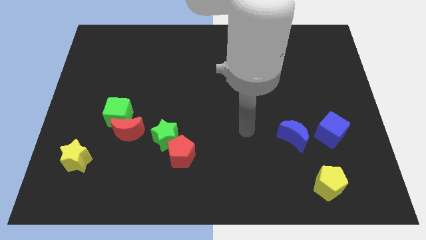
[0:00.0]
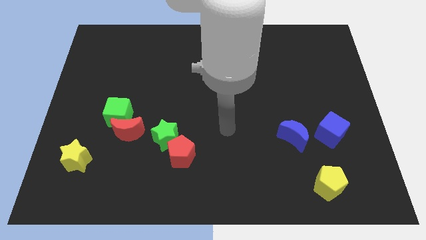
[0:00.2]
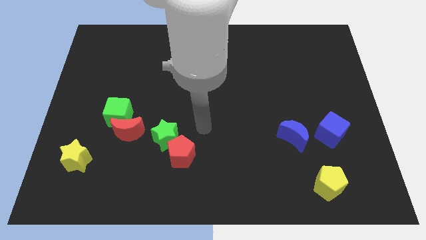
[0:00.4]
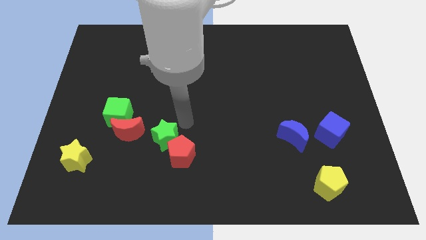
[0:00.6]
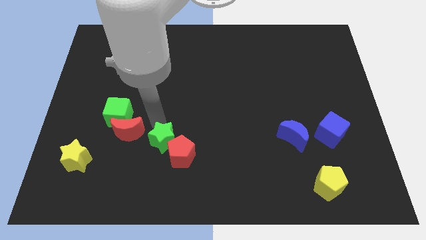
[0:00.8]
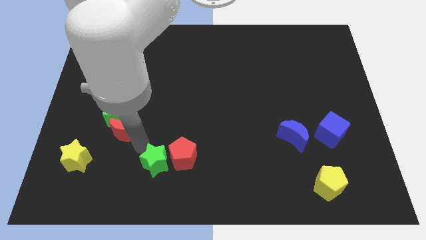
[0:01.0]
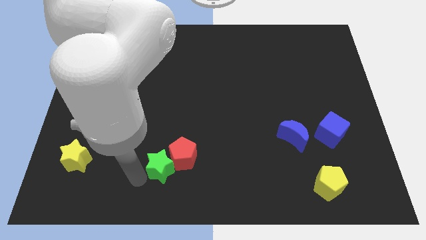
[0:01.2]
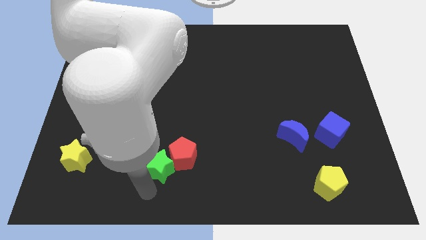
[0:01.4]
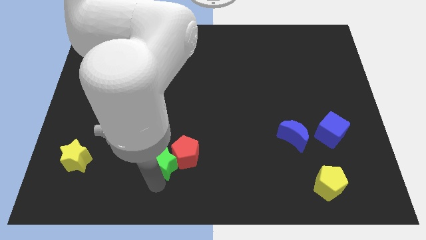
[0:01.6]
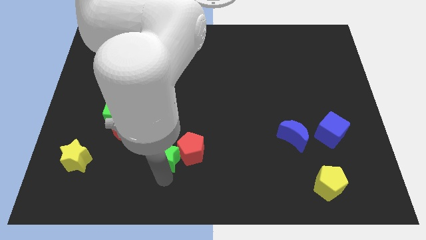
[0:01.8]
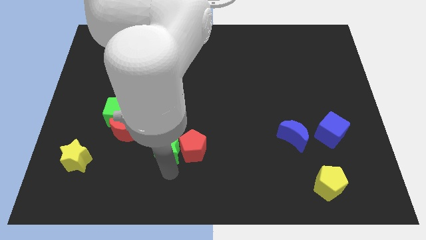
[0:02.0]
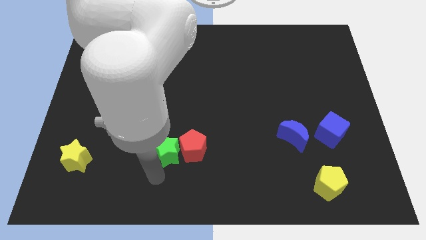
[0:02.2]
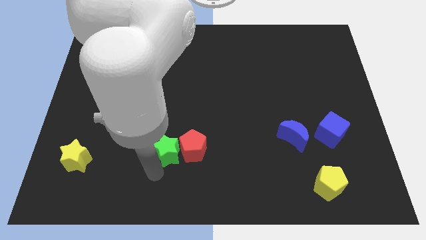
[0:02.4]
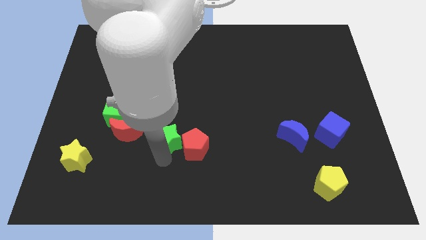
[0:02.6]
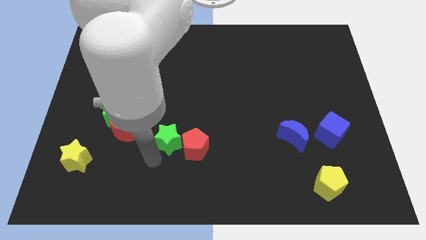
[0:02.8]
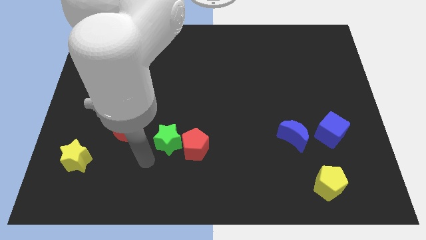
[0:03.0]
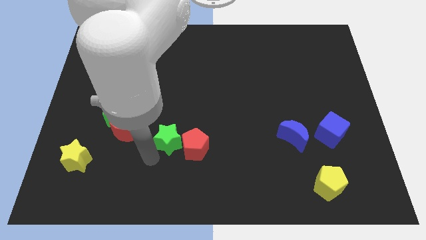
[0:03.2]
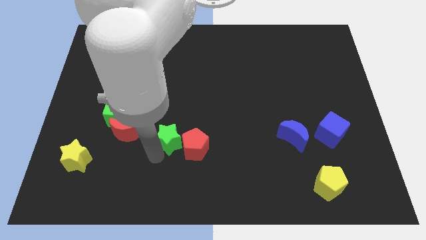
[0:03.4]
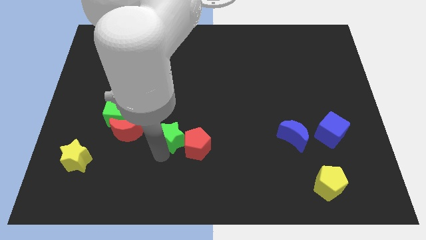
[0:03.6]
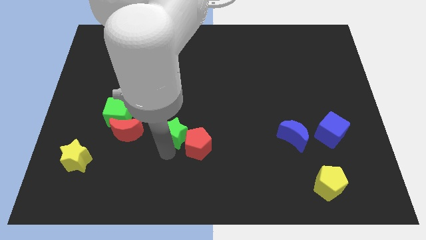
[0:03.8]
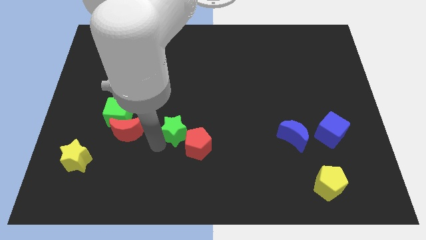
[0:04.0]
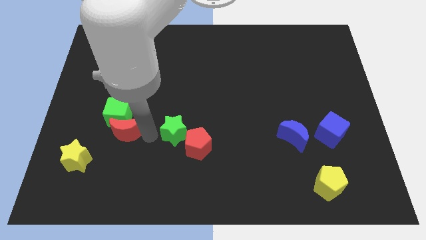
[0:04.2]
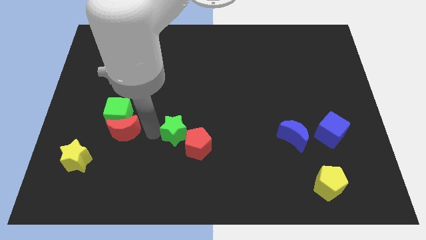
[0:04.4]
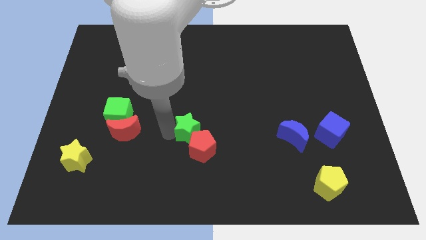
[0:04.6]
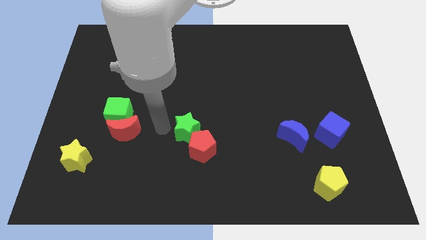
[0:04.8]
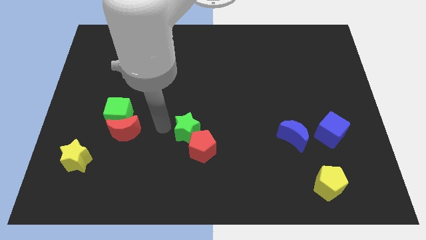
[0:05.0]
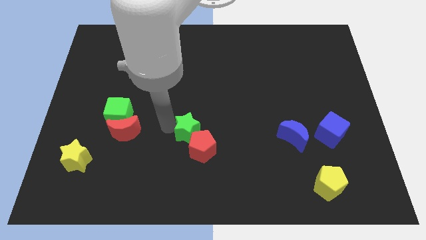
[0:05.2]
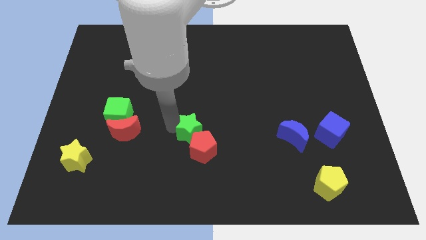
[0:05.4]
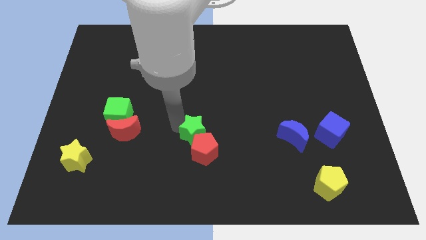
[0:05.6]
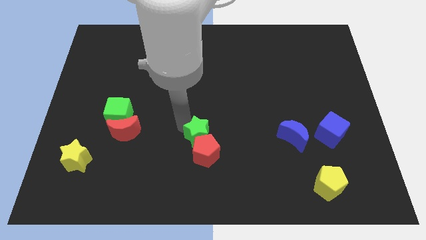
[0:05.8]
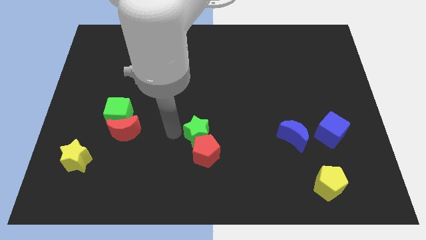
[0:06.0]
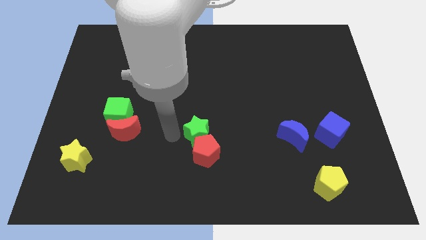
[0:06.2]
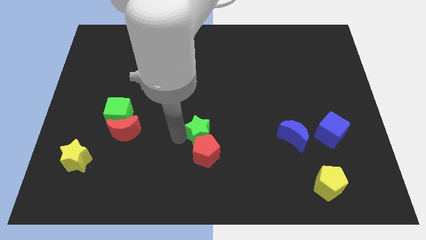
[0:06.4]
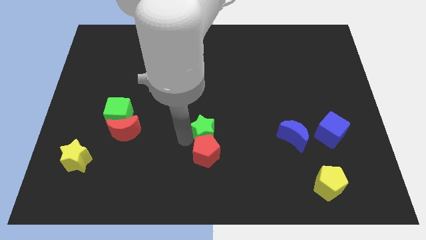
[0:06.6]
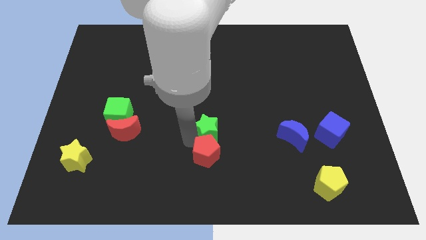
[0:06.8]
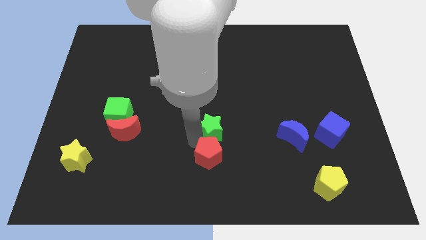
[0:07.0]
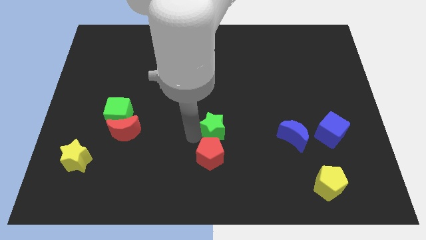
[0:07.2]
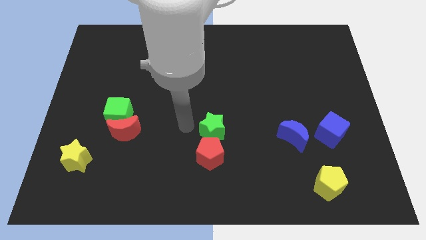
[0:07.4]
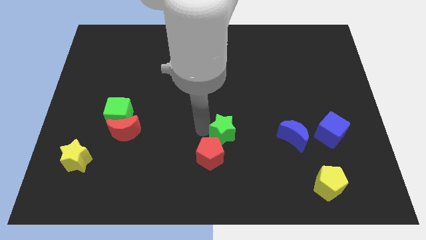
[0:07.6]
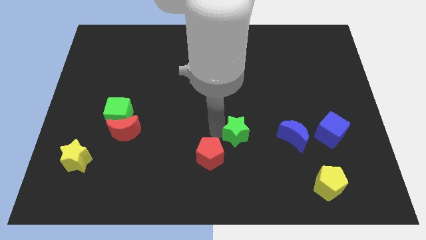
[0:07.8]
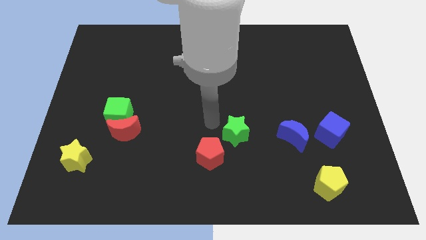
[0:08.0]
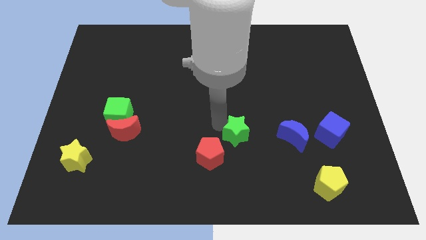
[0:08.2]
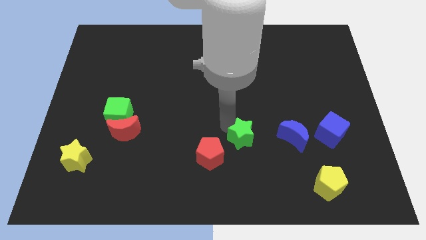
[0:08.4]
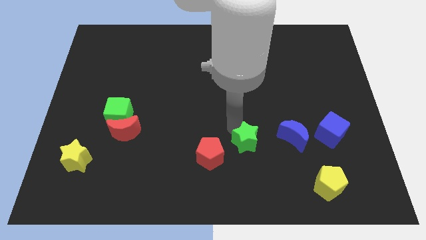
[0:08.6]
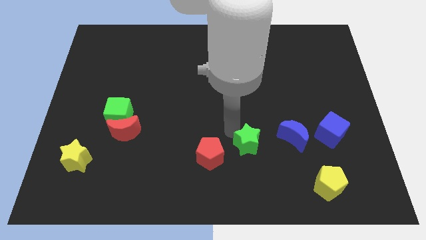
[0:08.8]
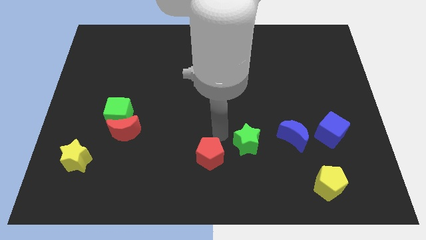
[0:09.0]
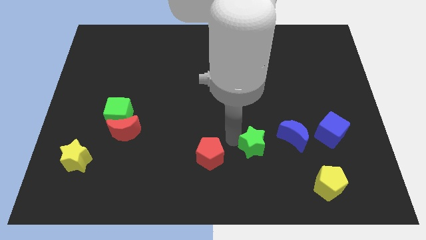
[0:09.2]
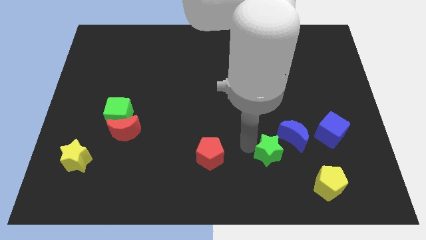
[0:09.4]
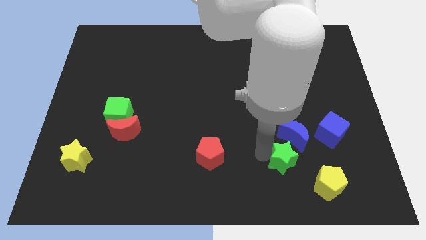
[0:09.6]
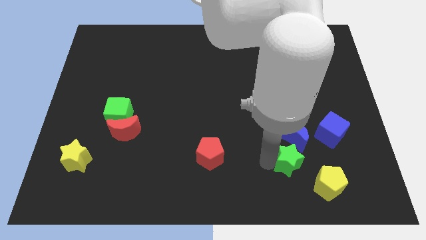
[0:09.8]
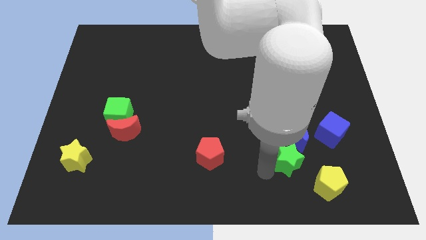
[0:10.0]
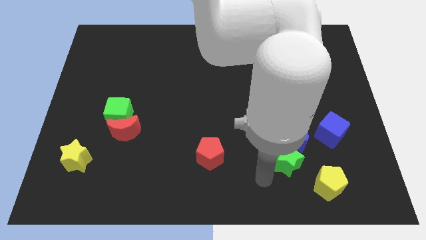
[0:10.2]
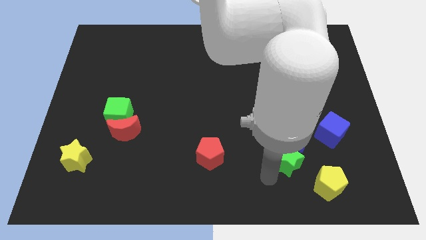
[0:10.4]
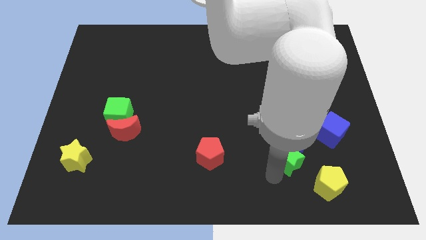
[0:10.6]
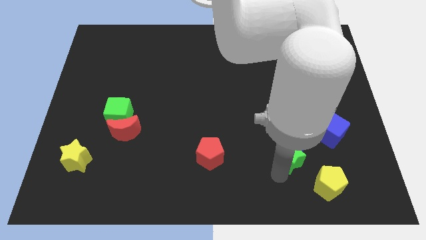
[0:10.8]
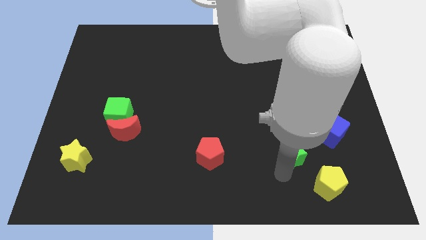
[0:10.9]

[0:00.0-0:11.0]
slide the green star to the bottom right side of the blue moon

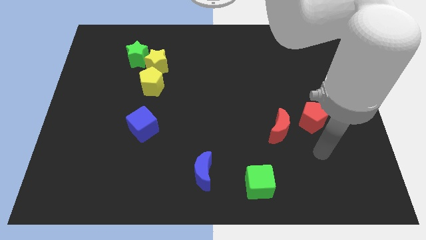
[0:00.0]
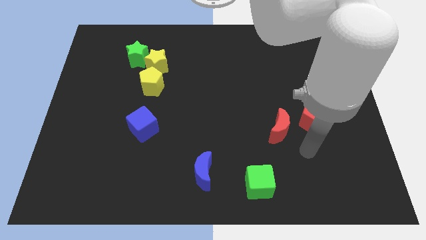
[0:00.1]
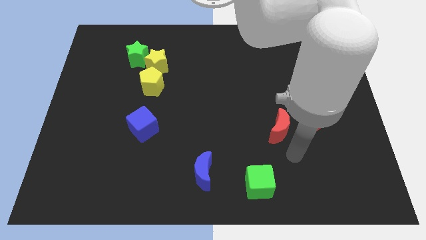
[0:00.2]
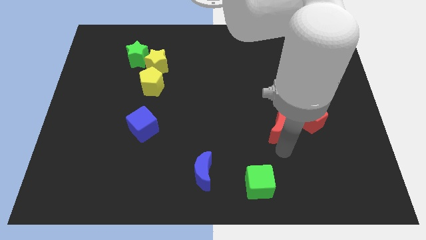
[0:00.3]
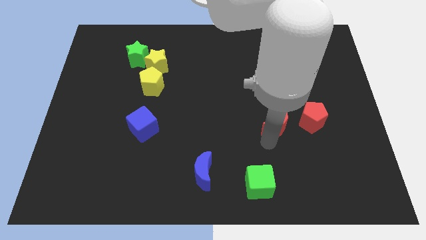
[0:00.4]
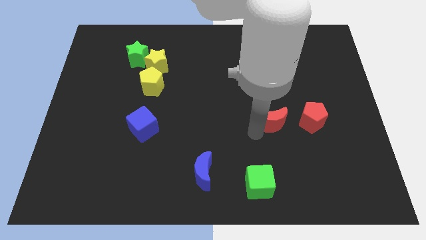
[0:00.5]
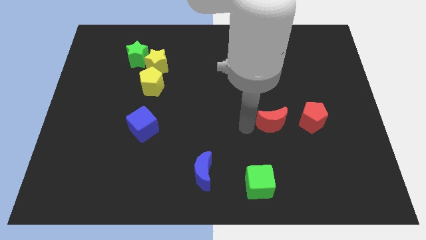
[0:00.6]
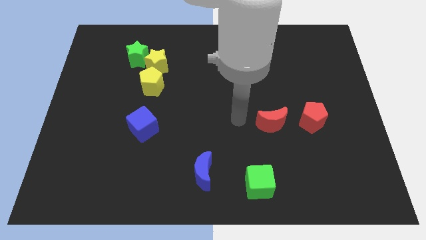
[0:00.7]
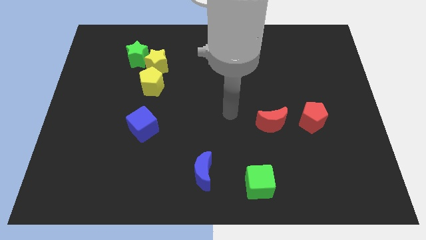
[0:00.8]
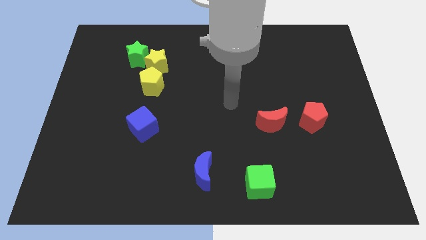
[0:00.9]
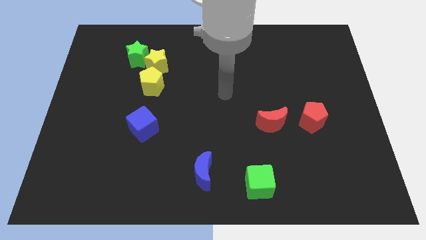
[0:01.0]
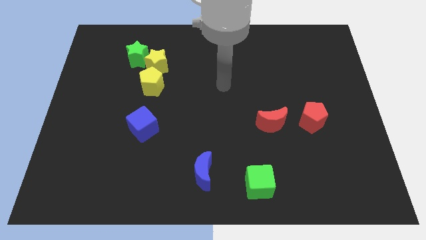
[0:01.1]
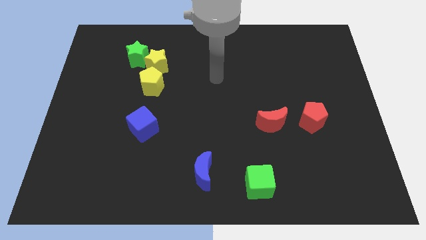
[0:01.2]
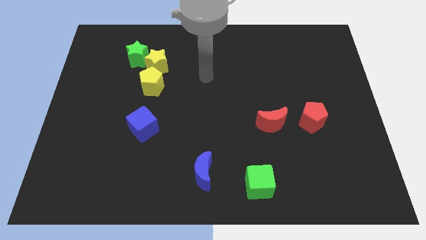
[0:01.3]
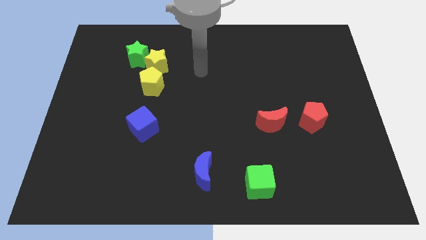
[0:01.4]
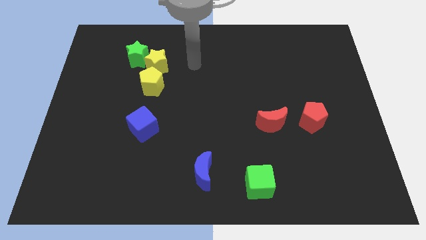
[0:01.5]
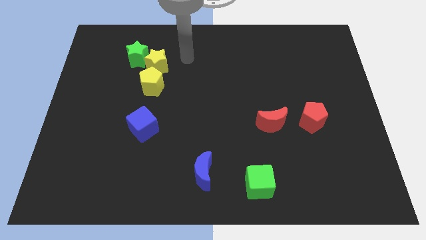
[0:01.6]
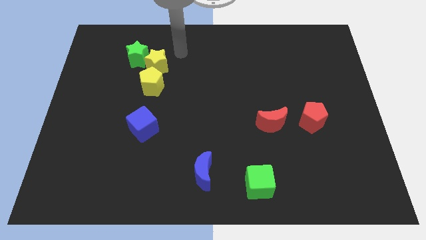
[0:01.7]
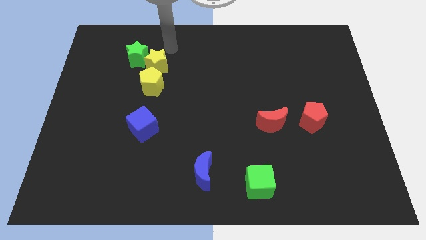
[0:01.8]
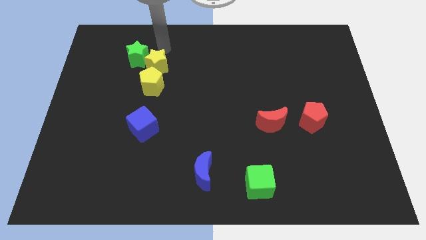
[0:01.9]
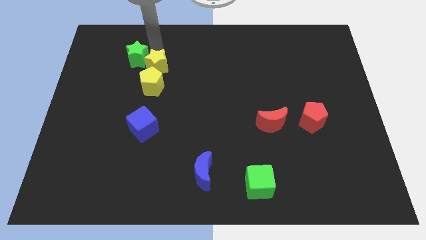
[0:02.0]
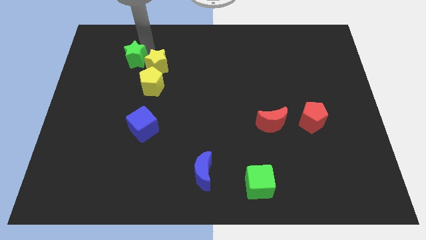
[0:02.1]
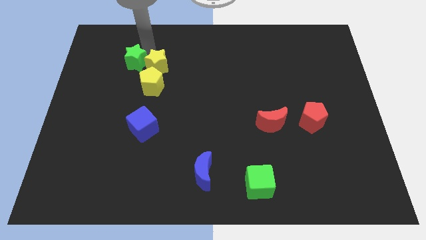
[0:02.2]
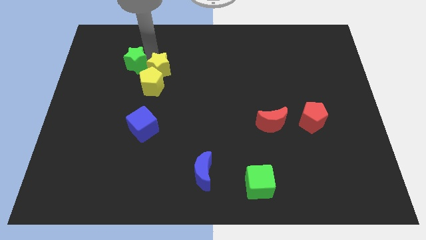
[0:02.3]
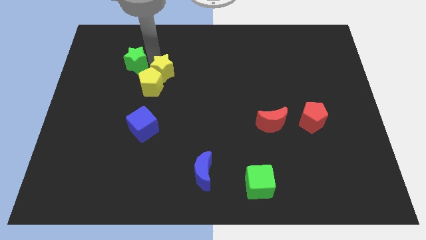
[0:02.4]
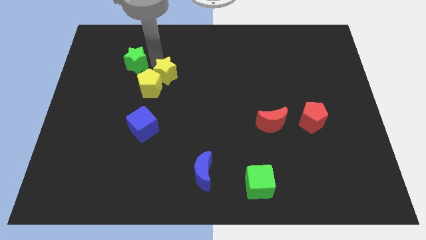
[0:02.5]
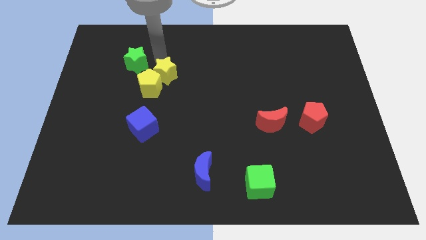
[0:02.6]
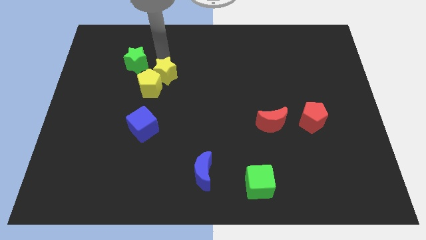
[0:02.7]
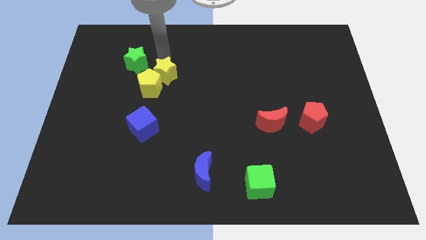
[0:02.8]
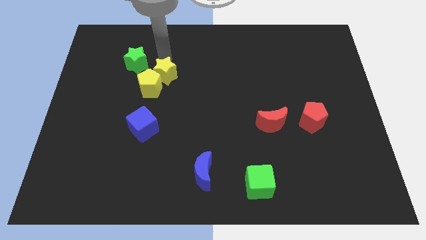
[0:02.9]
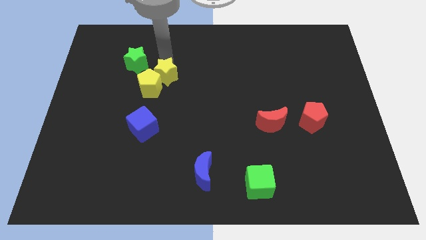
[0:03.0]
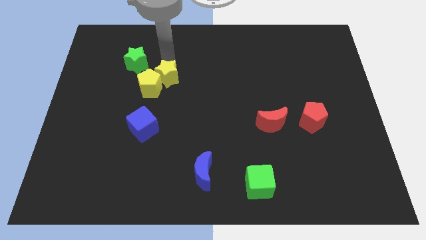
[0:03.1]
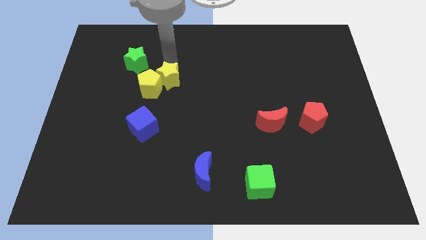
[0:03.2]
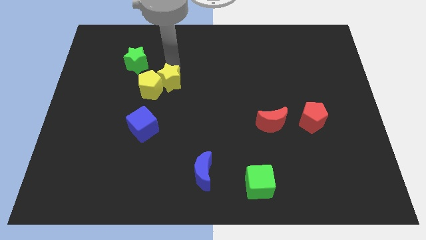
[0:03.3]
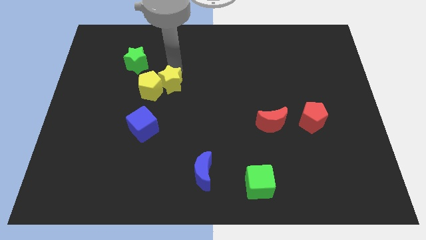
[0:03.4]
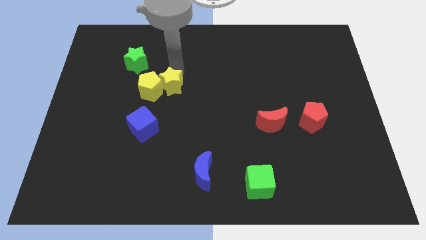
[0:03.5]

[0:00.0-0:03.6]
push the yellow star to the bottom right side of the yellow pentagon
